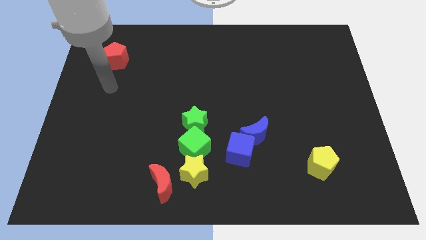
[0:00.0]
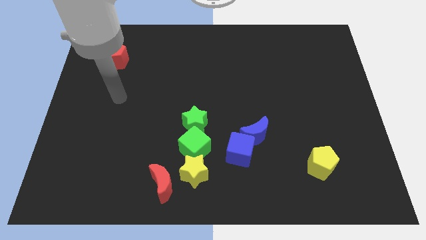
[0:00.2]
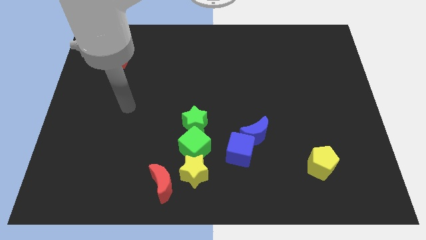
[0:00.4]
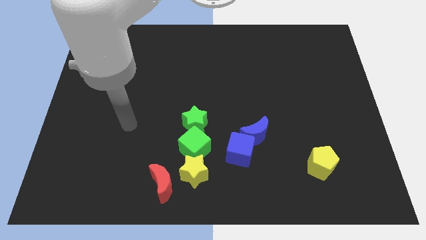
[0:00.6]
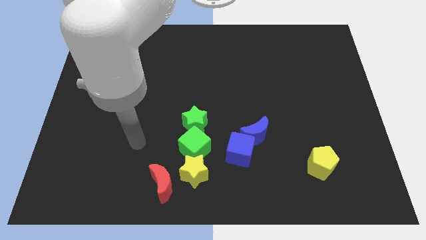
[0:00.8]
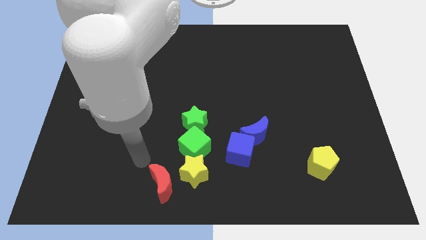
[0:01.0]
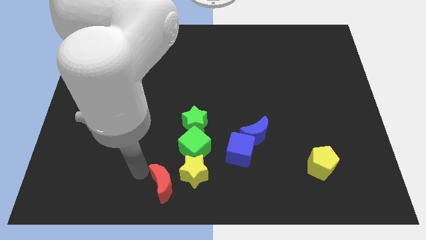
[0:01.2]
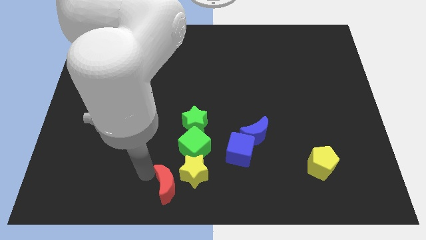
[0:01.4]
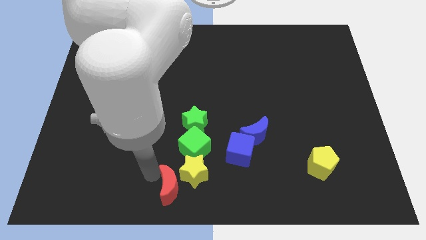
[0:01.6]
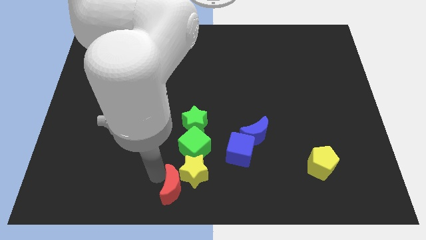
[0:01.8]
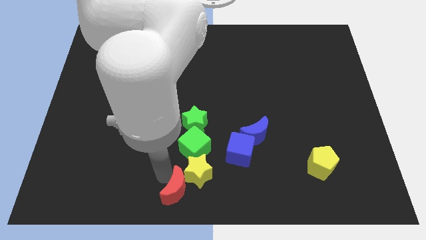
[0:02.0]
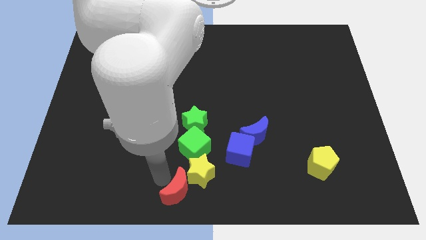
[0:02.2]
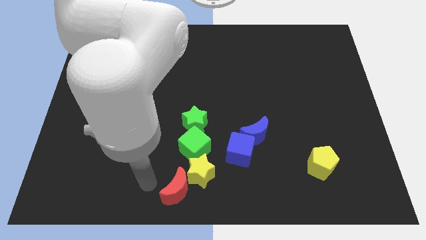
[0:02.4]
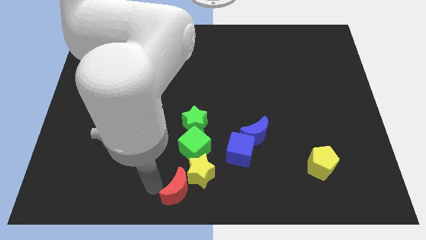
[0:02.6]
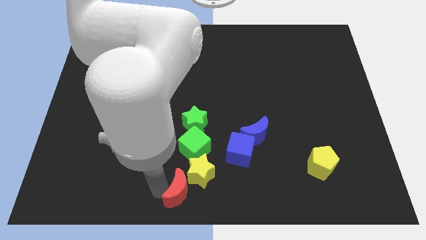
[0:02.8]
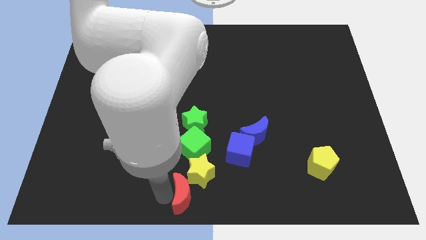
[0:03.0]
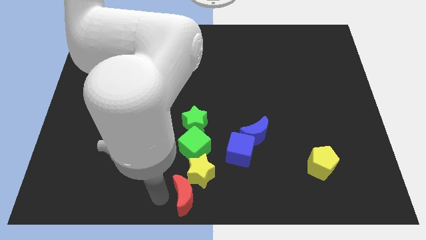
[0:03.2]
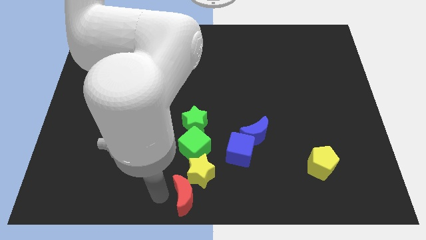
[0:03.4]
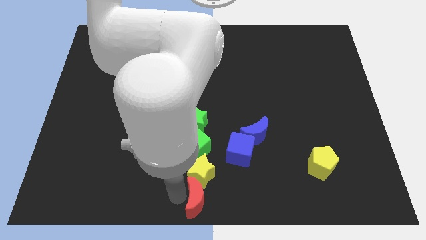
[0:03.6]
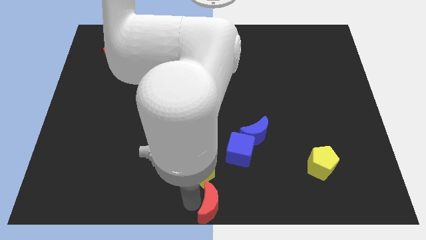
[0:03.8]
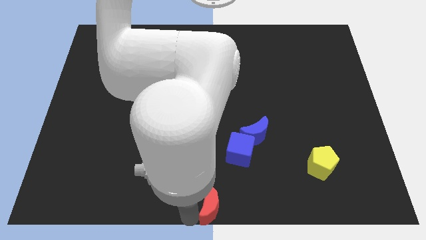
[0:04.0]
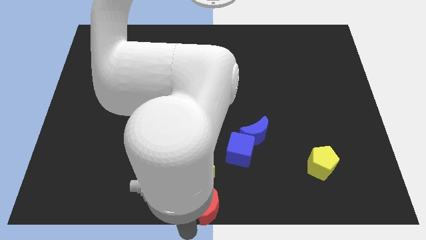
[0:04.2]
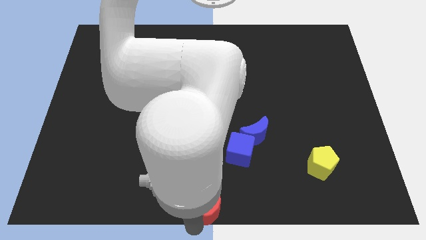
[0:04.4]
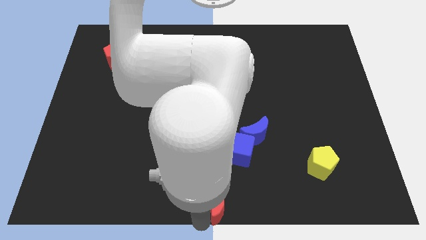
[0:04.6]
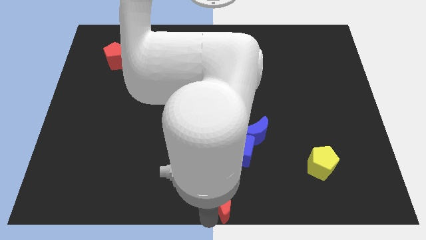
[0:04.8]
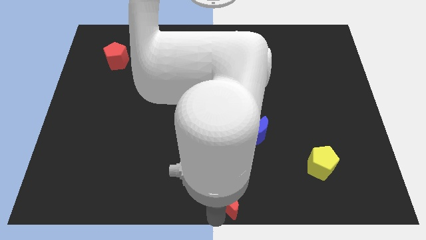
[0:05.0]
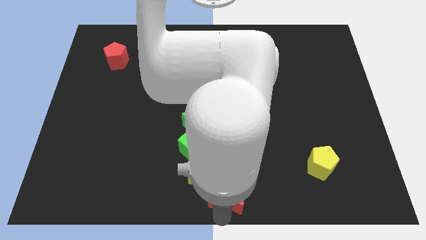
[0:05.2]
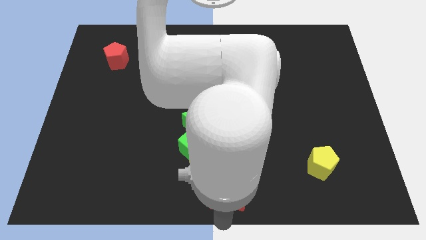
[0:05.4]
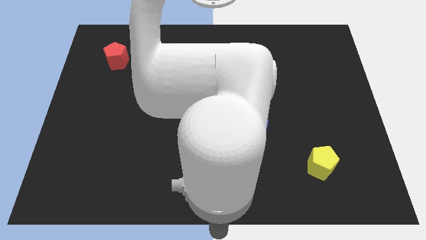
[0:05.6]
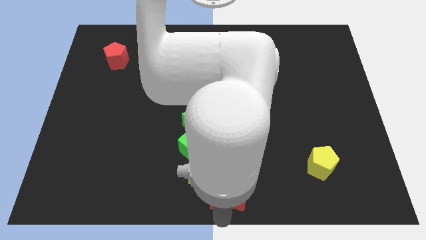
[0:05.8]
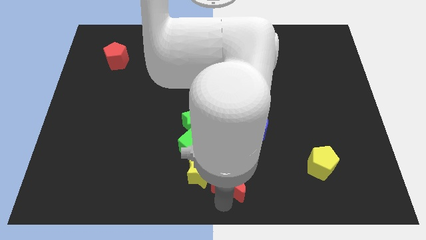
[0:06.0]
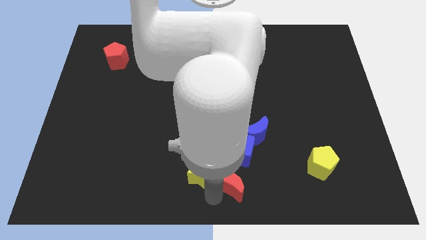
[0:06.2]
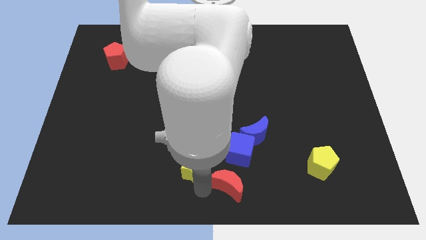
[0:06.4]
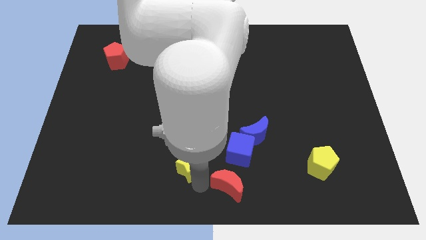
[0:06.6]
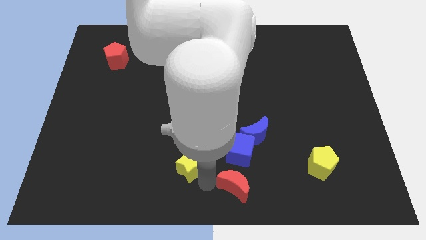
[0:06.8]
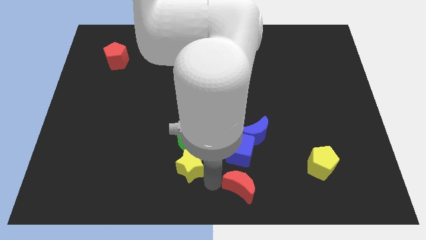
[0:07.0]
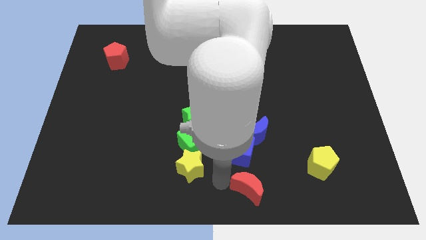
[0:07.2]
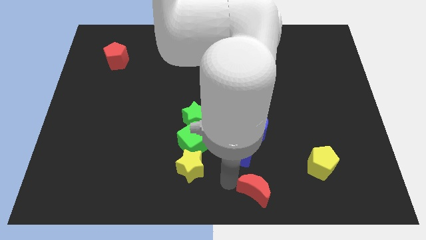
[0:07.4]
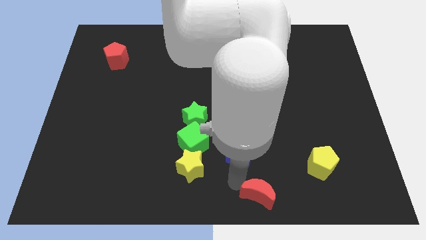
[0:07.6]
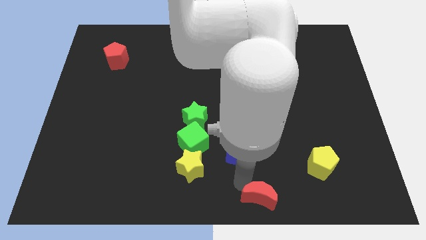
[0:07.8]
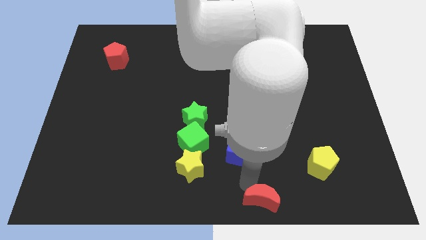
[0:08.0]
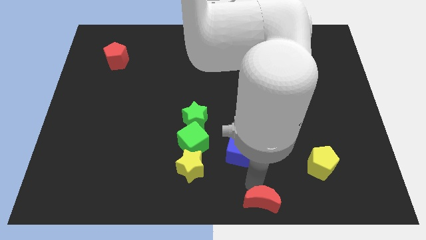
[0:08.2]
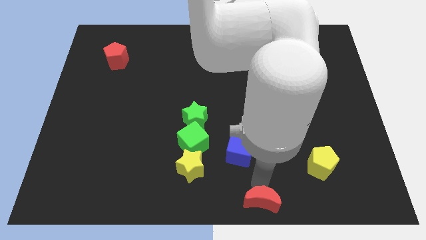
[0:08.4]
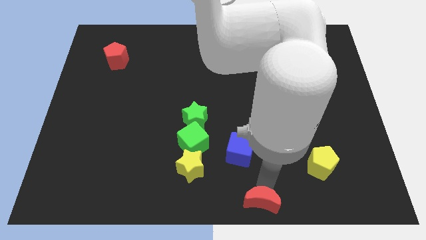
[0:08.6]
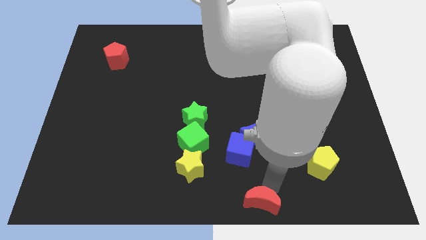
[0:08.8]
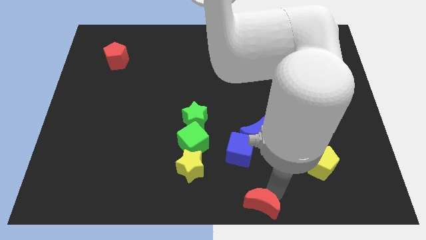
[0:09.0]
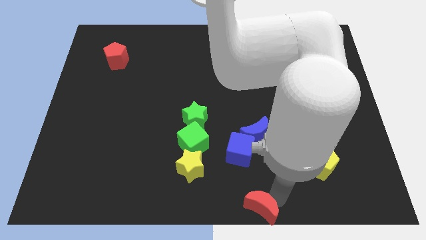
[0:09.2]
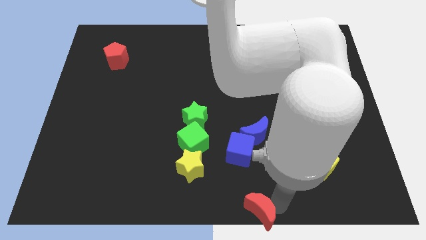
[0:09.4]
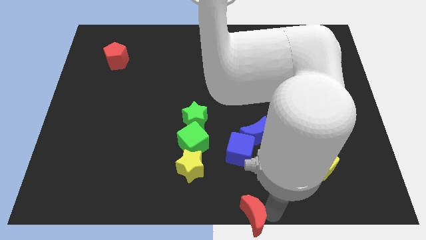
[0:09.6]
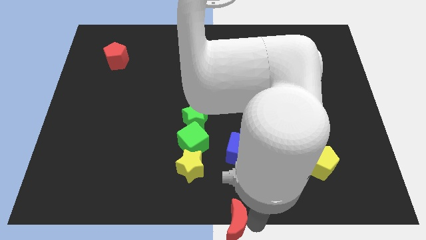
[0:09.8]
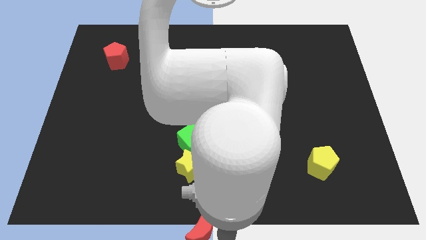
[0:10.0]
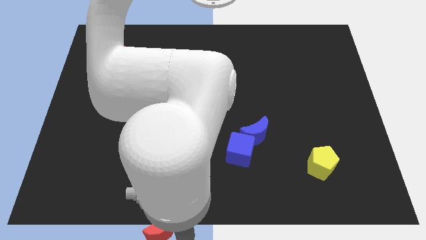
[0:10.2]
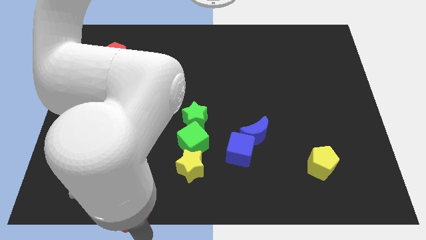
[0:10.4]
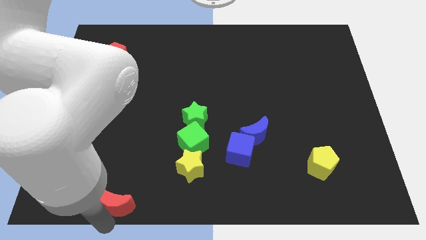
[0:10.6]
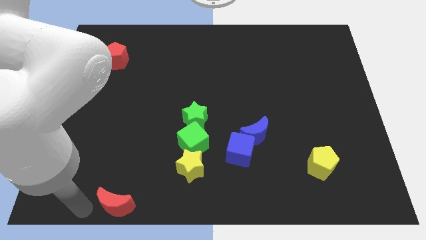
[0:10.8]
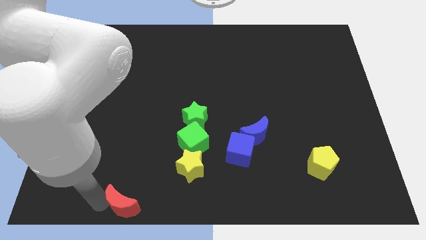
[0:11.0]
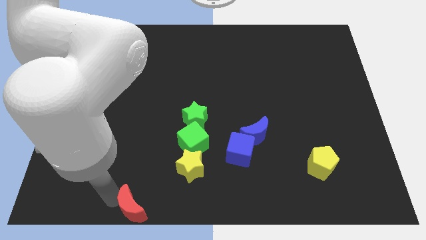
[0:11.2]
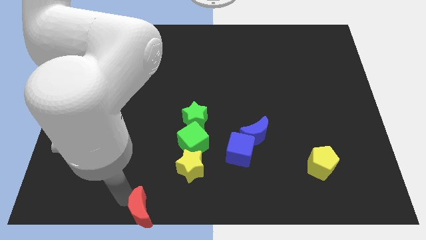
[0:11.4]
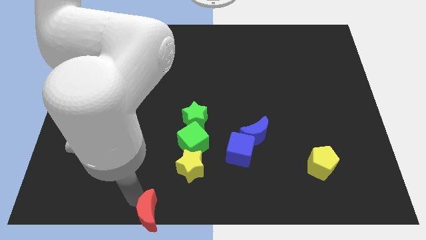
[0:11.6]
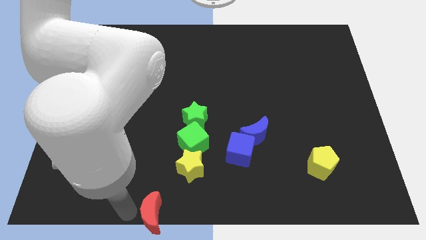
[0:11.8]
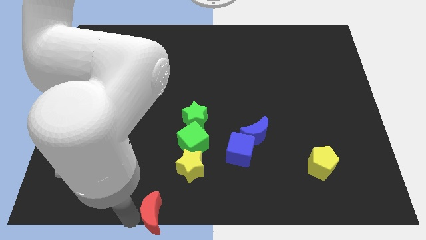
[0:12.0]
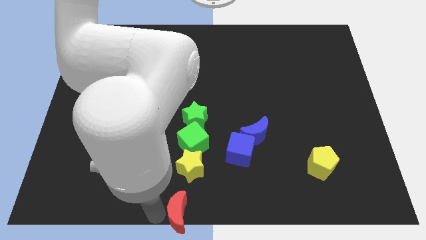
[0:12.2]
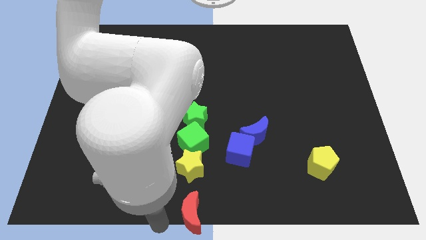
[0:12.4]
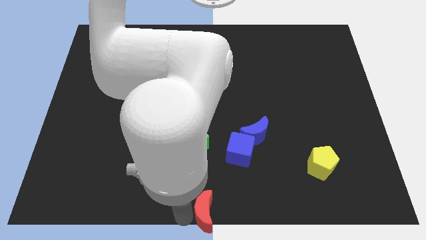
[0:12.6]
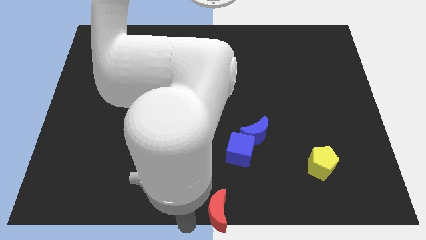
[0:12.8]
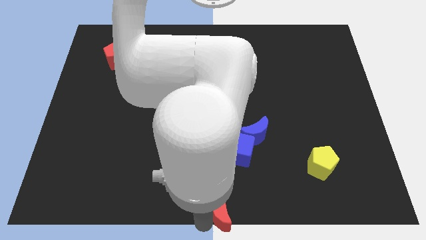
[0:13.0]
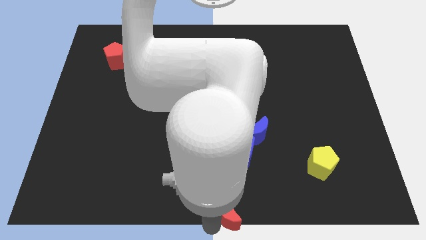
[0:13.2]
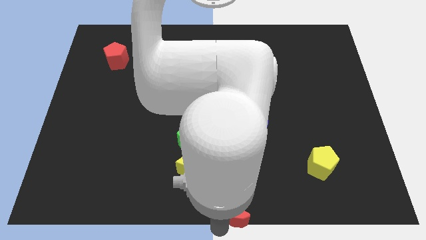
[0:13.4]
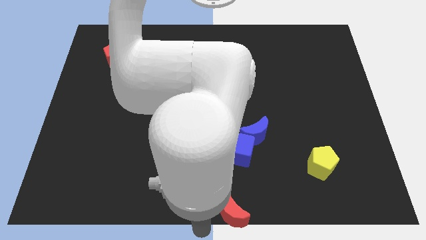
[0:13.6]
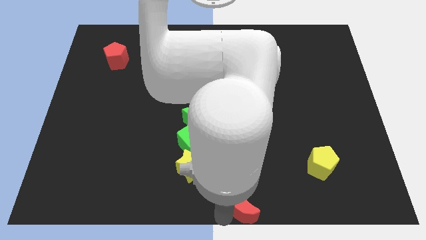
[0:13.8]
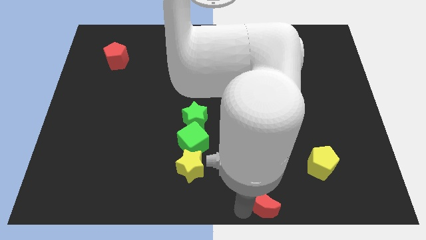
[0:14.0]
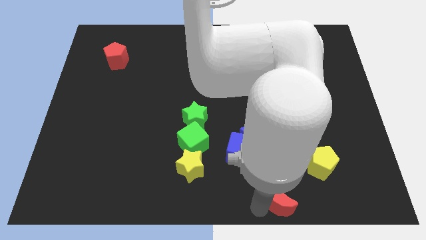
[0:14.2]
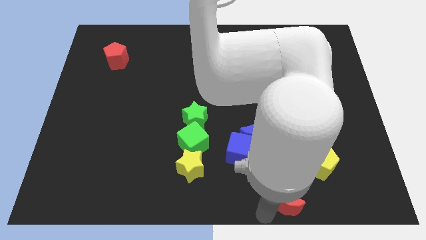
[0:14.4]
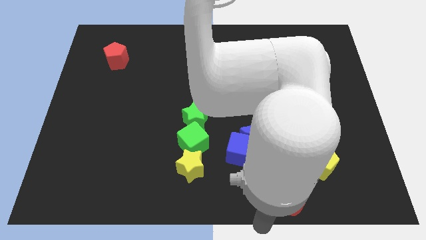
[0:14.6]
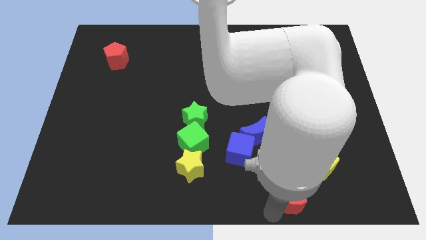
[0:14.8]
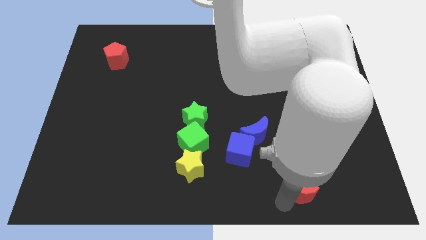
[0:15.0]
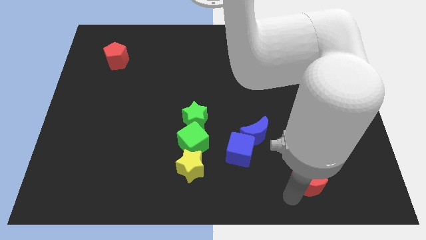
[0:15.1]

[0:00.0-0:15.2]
slide the red moon towards the yellow pentagon
